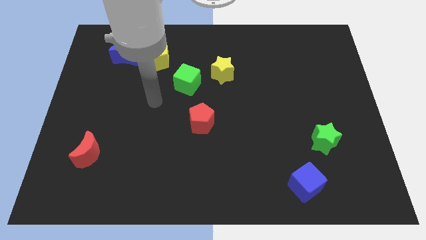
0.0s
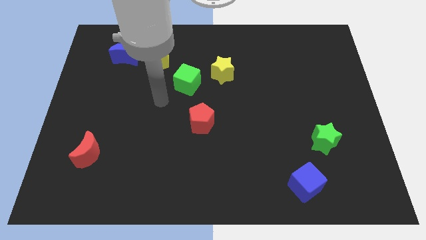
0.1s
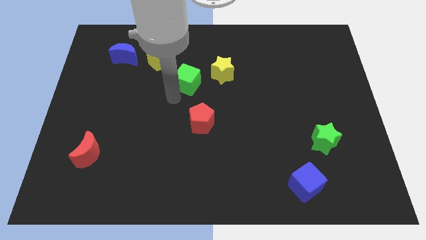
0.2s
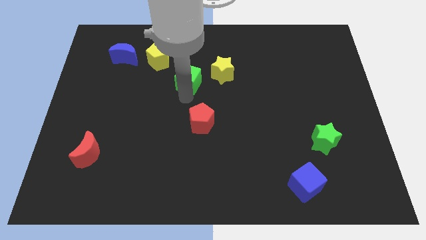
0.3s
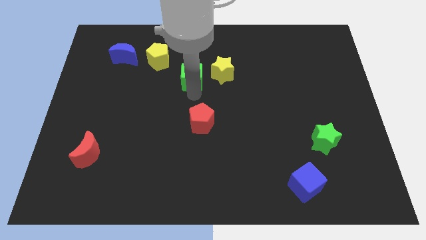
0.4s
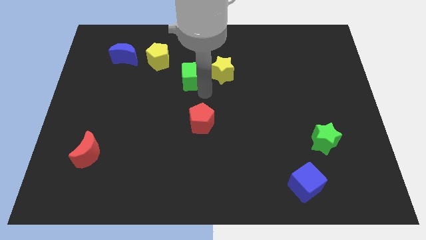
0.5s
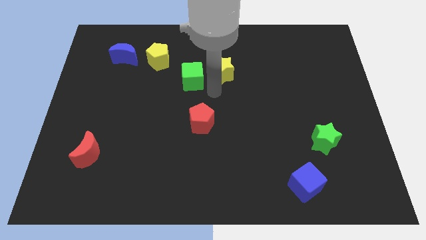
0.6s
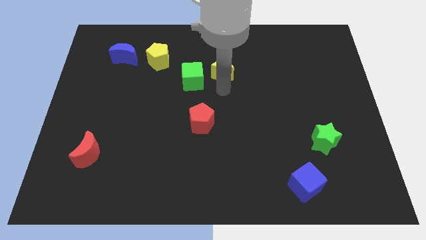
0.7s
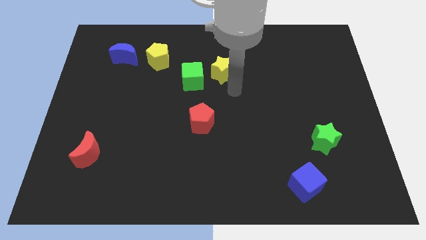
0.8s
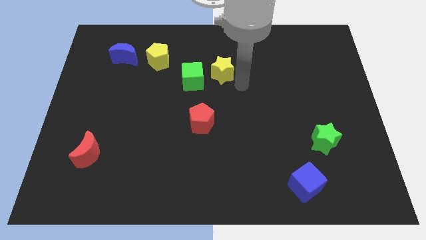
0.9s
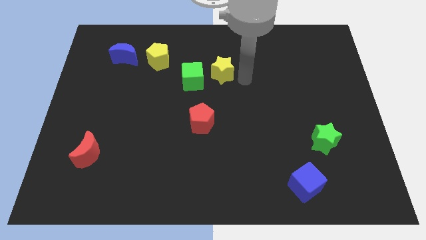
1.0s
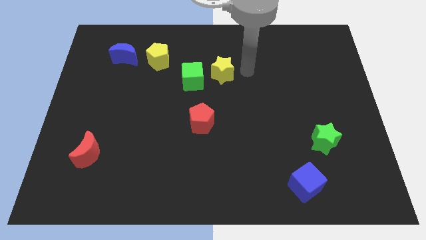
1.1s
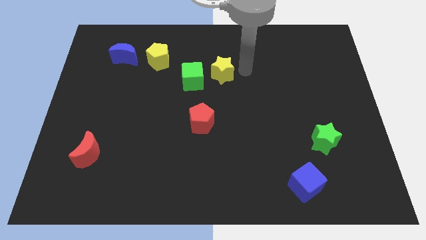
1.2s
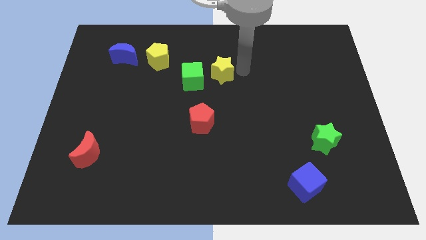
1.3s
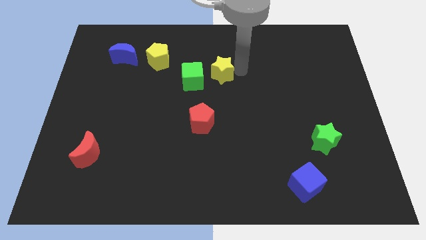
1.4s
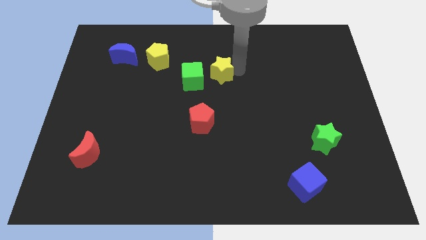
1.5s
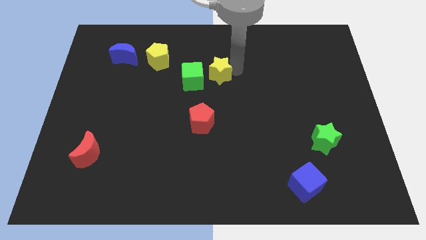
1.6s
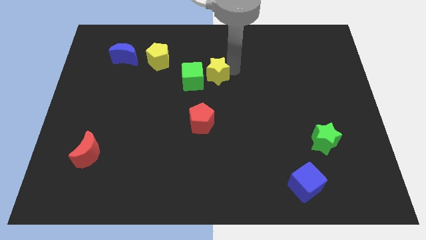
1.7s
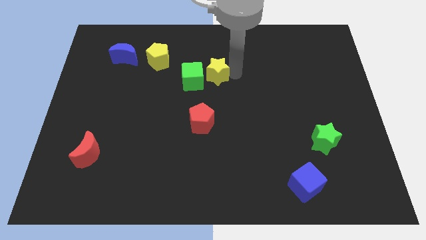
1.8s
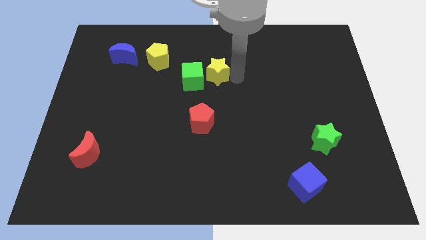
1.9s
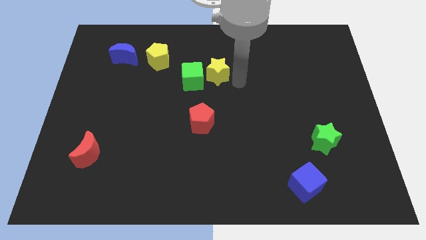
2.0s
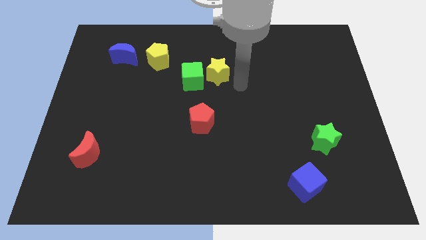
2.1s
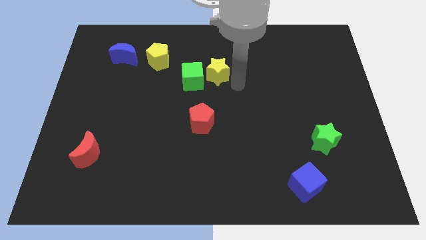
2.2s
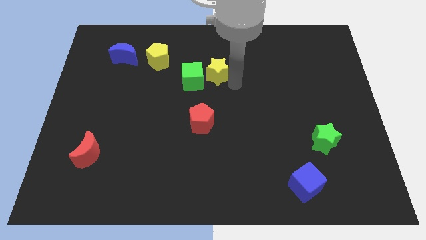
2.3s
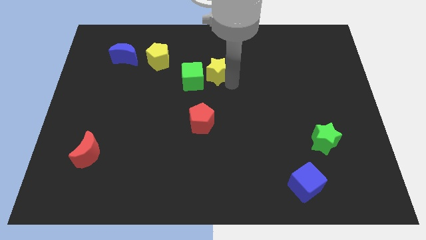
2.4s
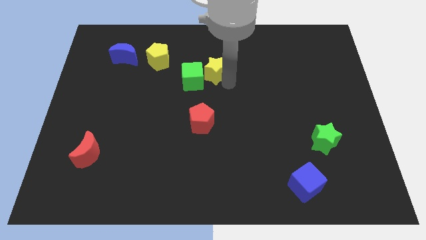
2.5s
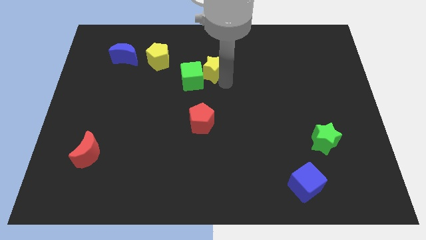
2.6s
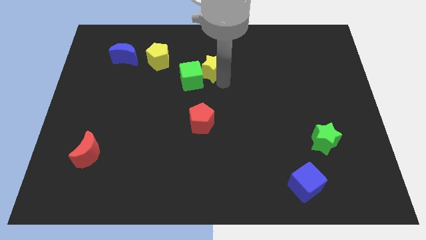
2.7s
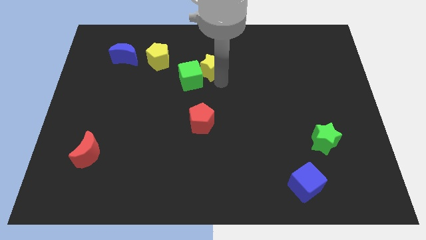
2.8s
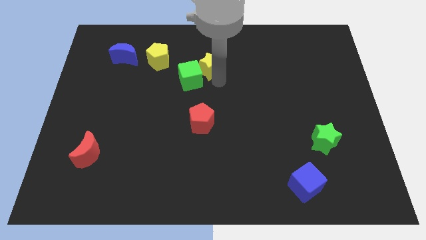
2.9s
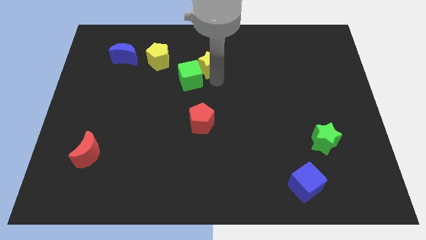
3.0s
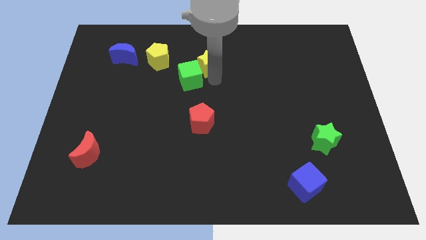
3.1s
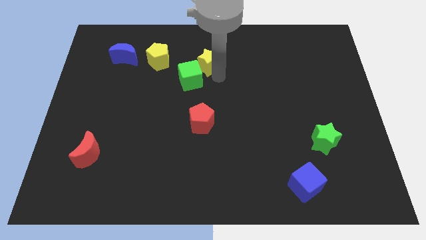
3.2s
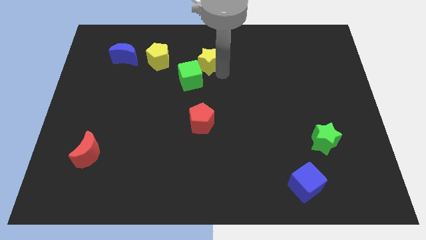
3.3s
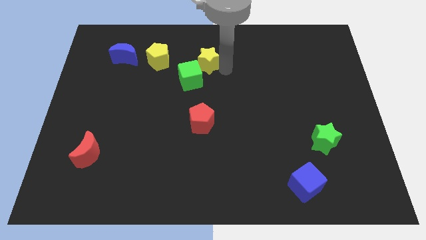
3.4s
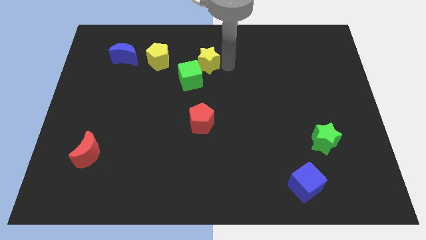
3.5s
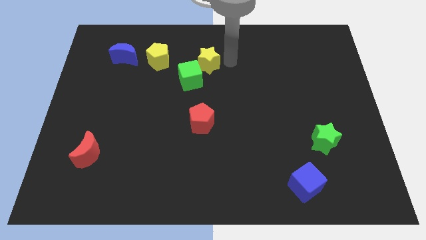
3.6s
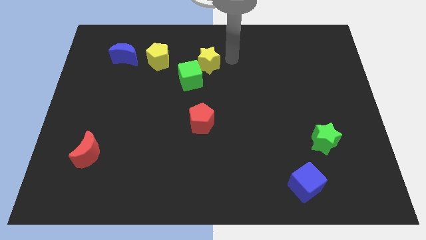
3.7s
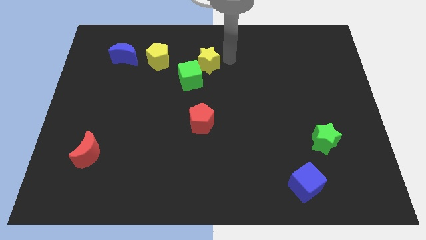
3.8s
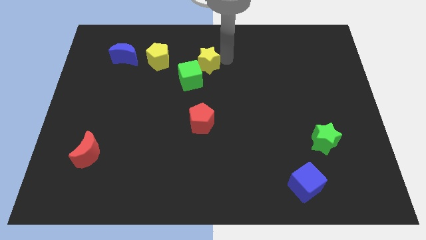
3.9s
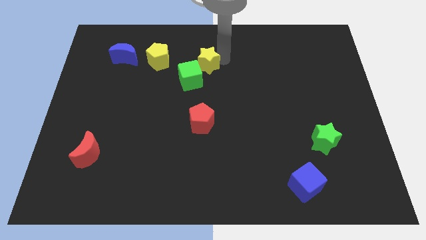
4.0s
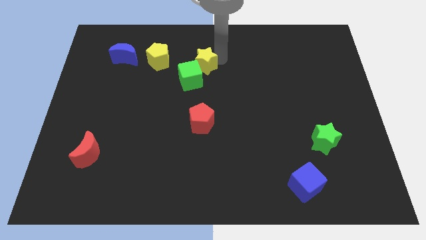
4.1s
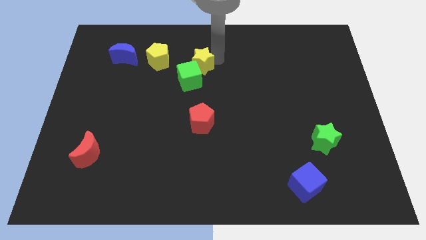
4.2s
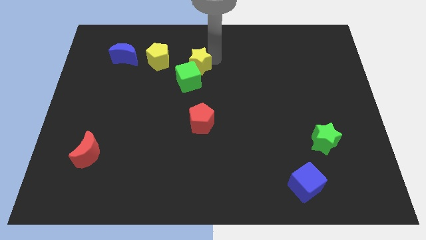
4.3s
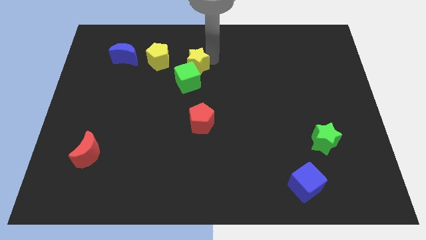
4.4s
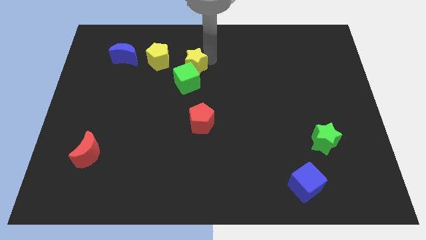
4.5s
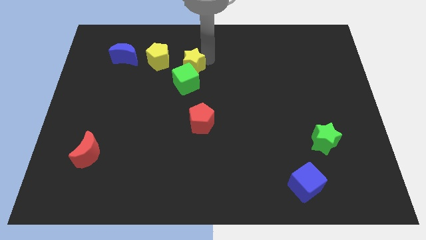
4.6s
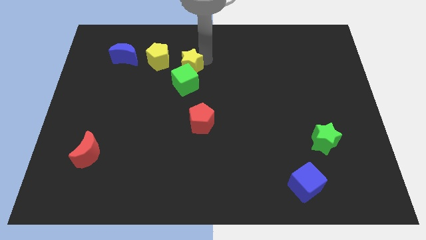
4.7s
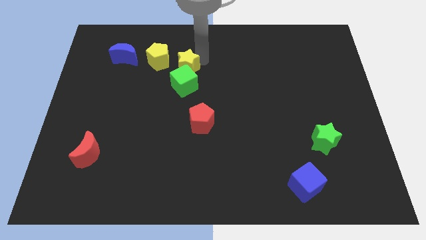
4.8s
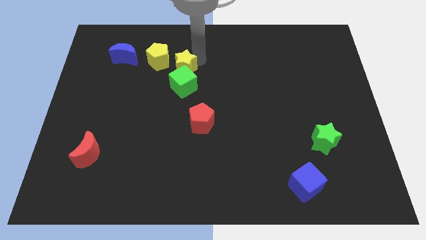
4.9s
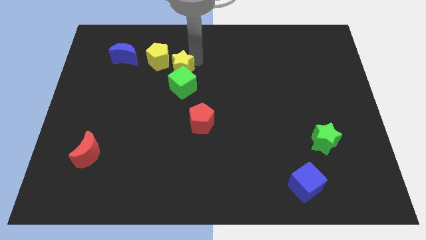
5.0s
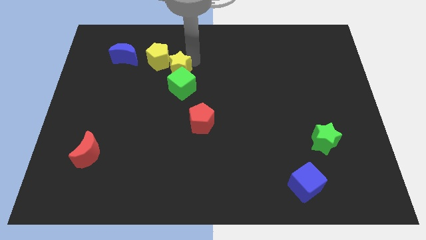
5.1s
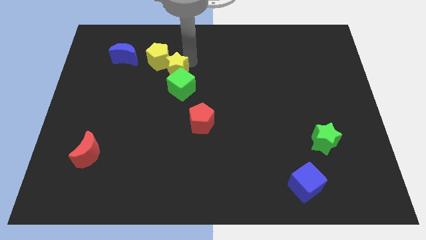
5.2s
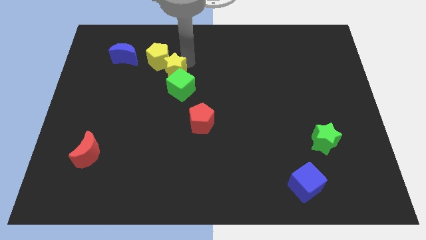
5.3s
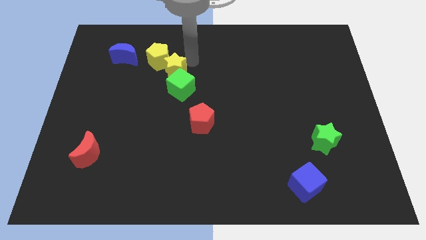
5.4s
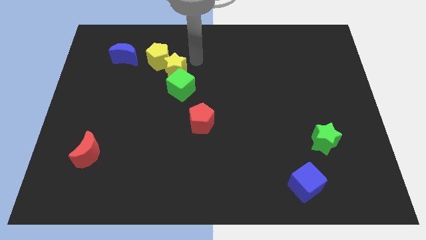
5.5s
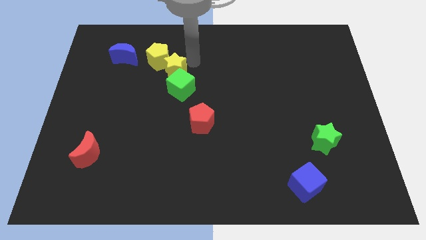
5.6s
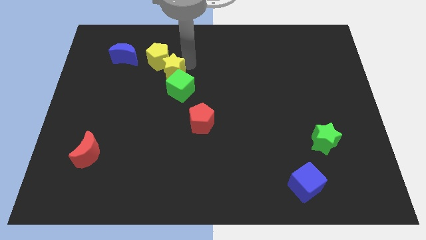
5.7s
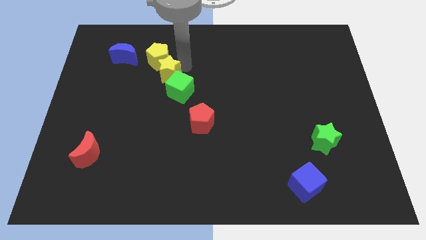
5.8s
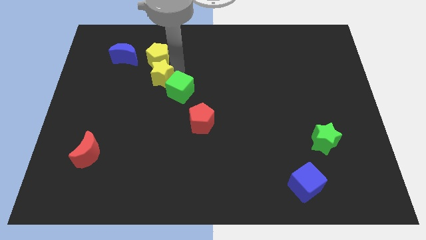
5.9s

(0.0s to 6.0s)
move the yellow star to the left side of the green cube
